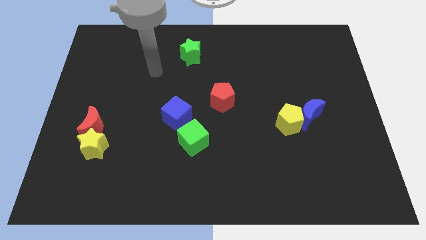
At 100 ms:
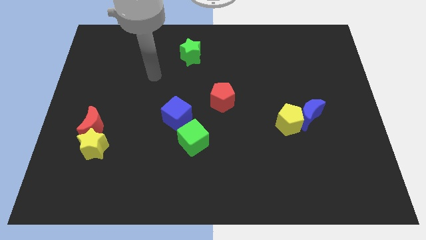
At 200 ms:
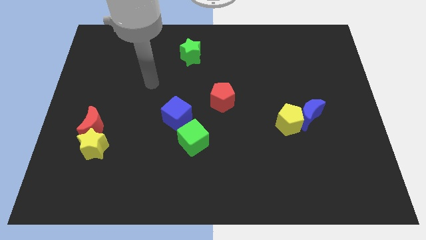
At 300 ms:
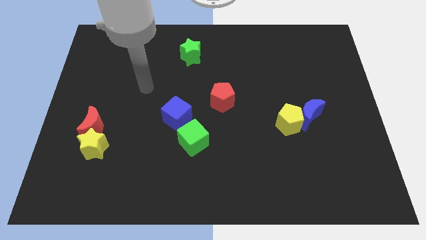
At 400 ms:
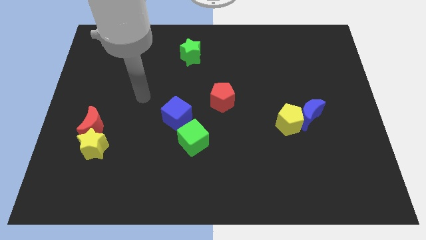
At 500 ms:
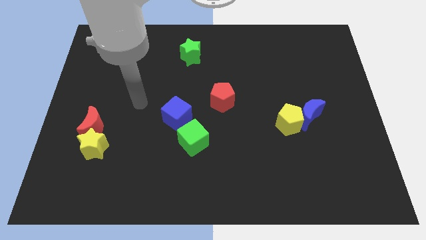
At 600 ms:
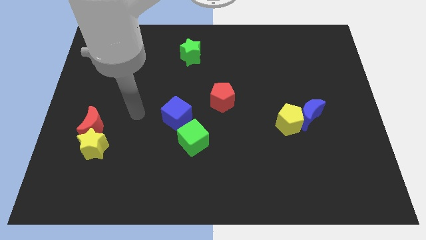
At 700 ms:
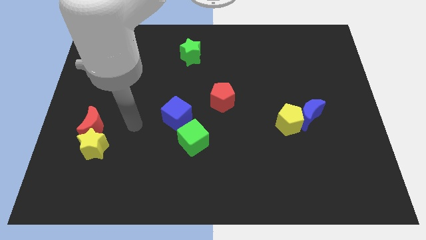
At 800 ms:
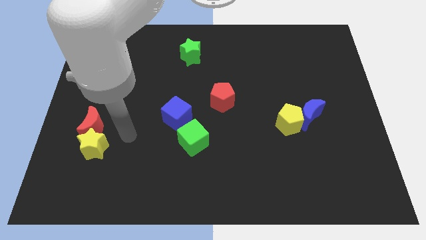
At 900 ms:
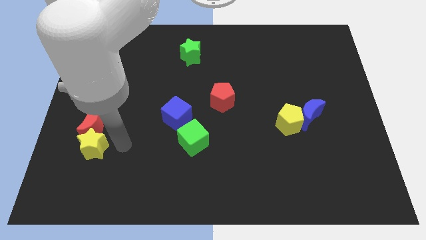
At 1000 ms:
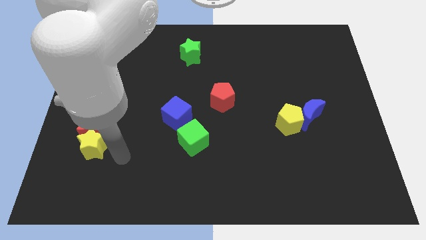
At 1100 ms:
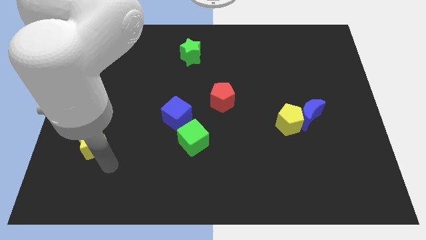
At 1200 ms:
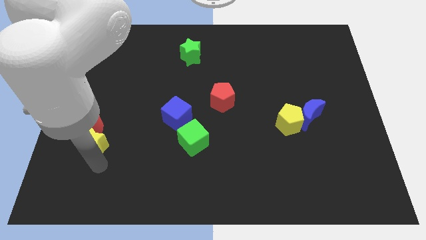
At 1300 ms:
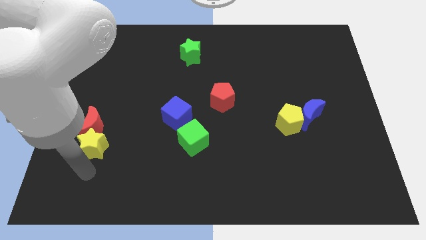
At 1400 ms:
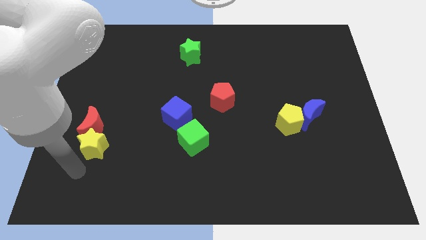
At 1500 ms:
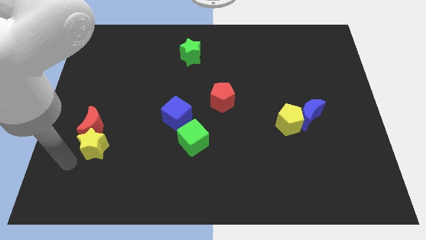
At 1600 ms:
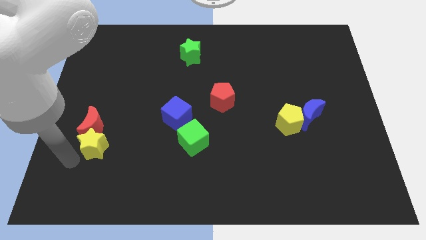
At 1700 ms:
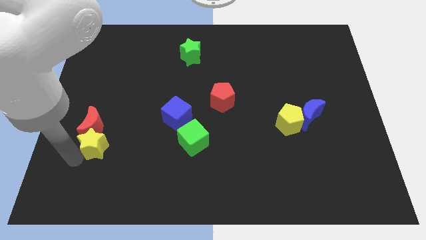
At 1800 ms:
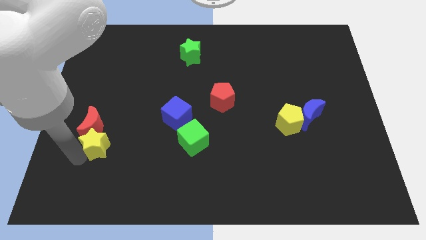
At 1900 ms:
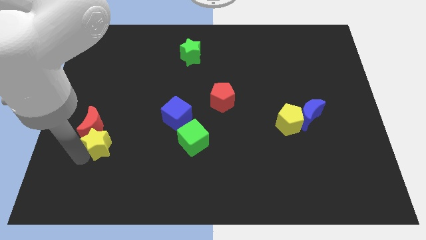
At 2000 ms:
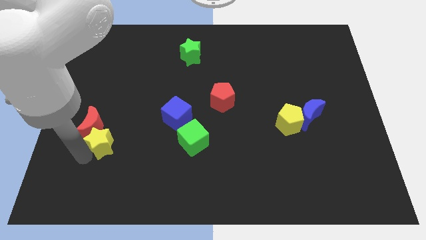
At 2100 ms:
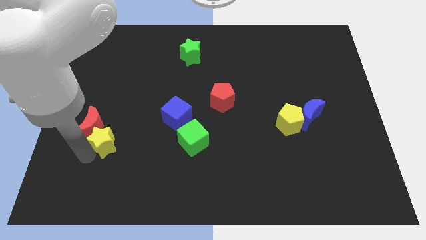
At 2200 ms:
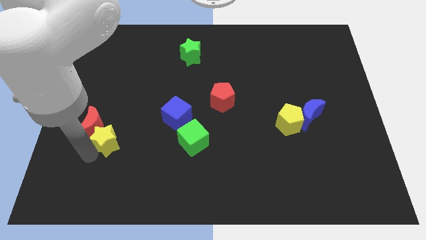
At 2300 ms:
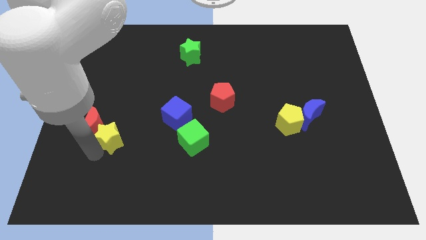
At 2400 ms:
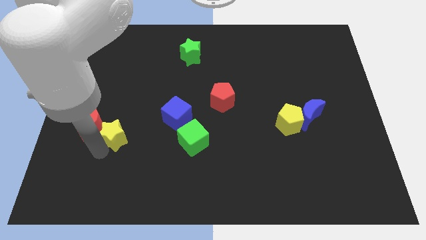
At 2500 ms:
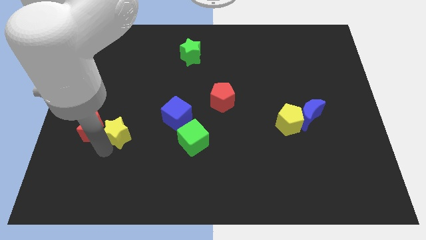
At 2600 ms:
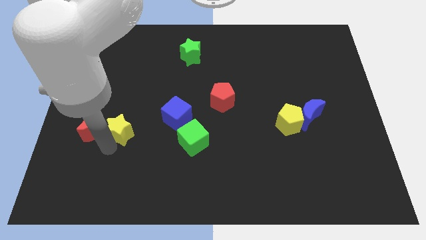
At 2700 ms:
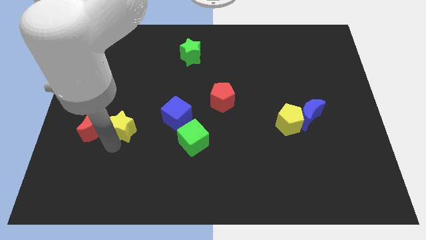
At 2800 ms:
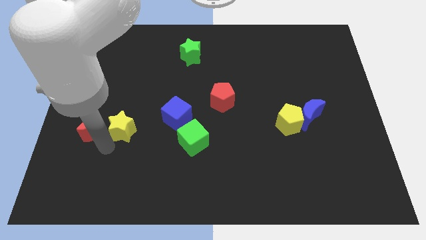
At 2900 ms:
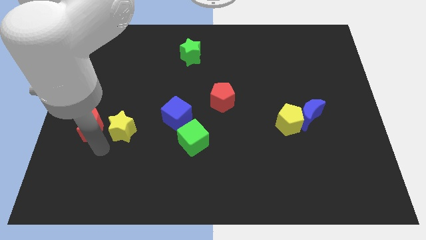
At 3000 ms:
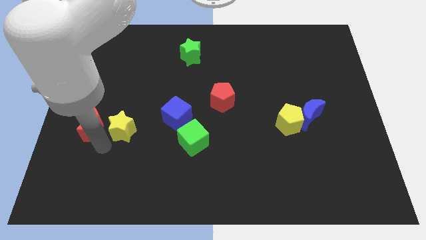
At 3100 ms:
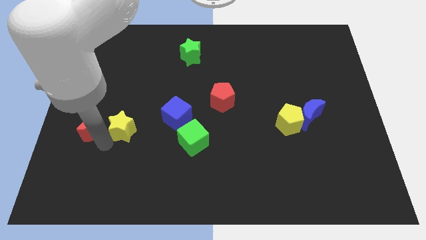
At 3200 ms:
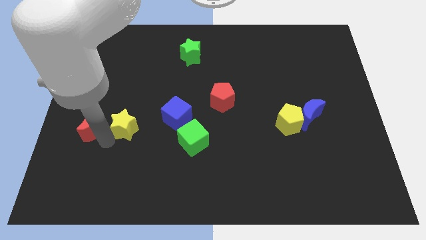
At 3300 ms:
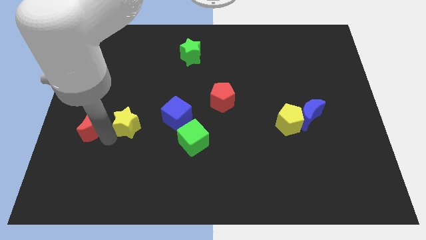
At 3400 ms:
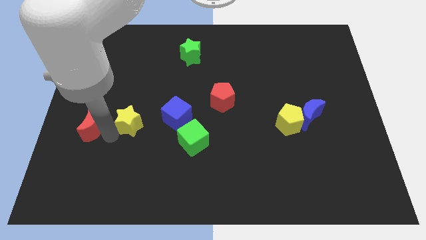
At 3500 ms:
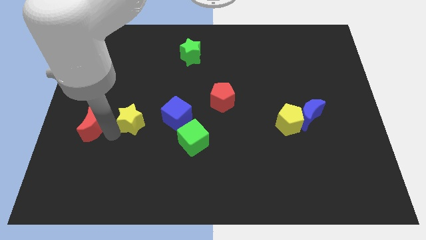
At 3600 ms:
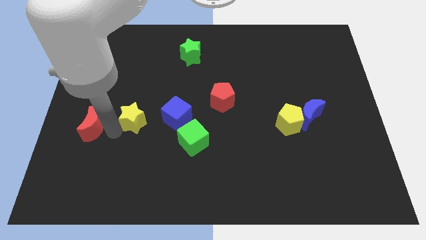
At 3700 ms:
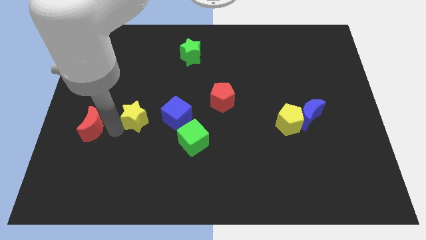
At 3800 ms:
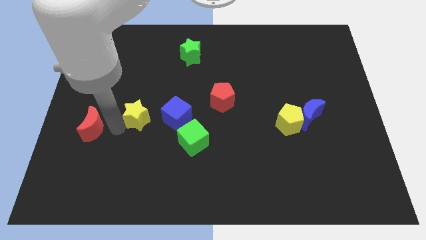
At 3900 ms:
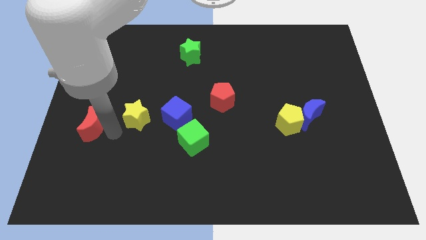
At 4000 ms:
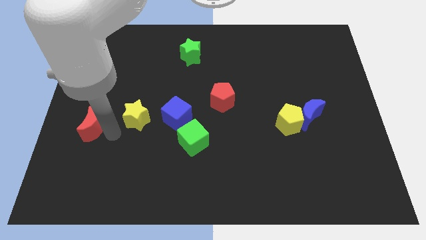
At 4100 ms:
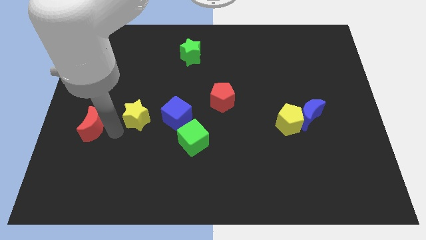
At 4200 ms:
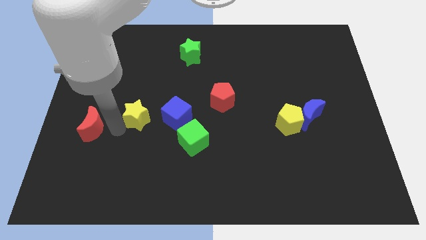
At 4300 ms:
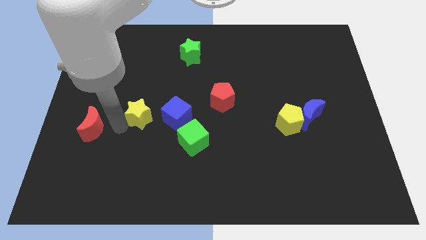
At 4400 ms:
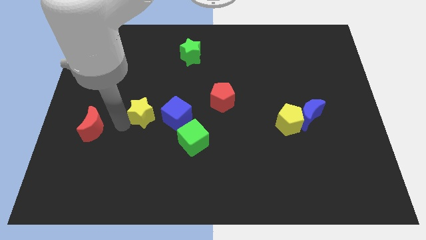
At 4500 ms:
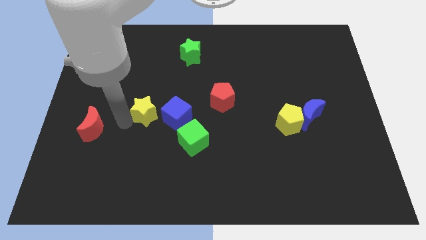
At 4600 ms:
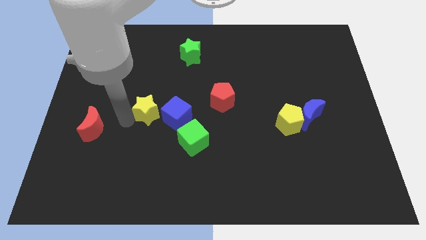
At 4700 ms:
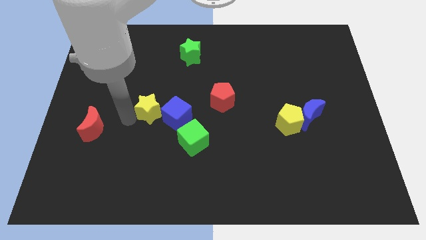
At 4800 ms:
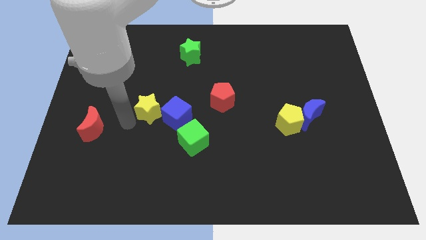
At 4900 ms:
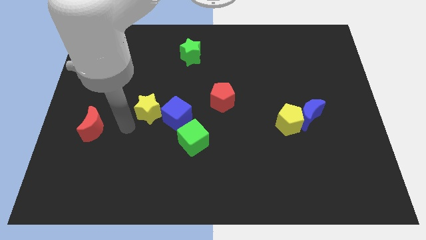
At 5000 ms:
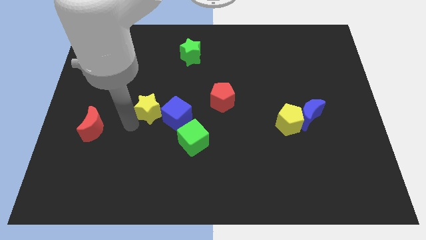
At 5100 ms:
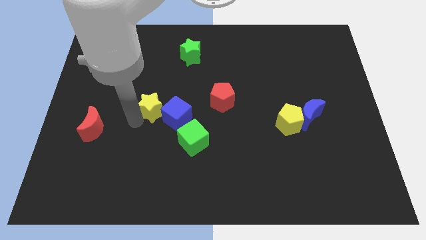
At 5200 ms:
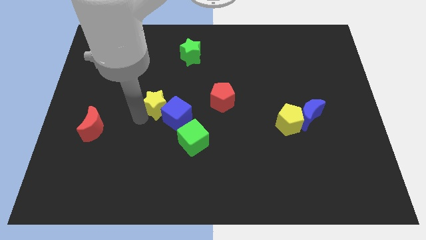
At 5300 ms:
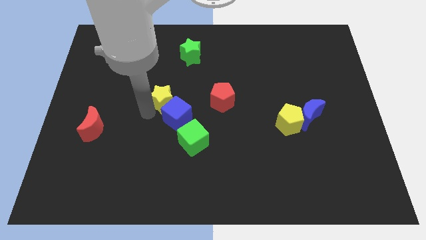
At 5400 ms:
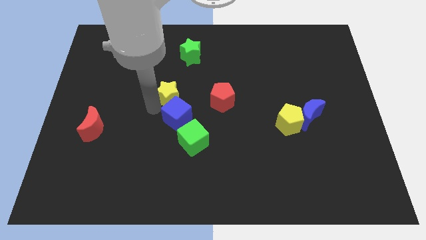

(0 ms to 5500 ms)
slide the yellow star diagonally upwards and to the right

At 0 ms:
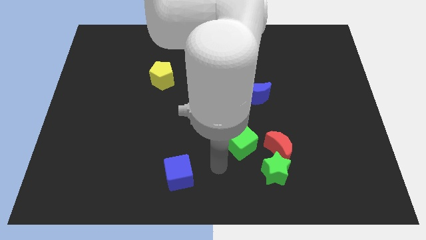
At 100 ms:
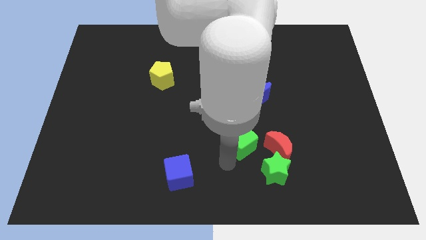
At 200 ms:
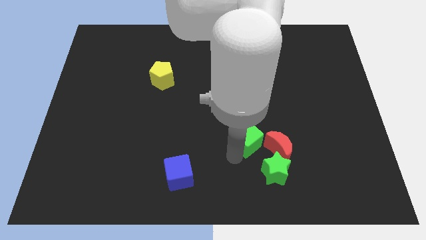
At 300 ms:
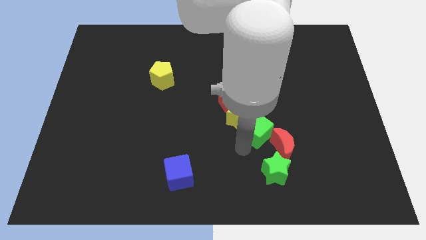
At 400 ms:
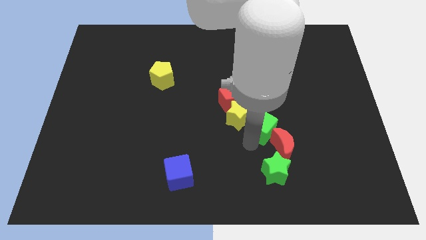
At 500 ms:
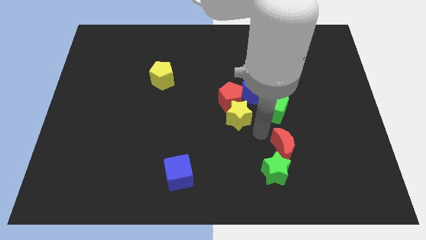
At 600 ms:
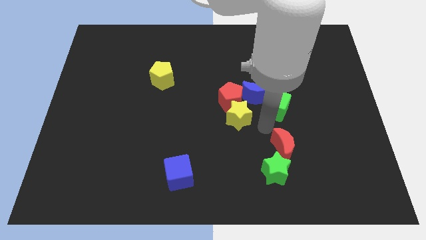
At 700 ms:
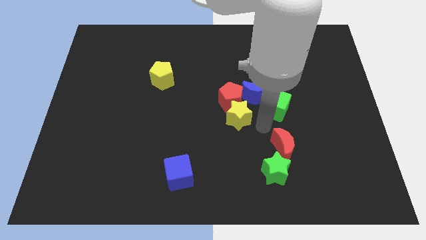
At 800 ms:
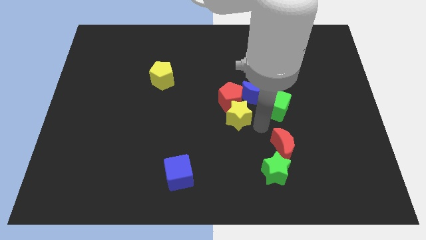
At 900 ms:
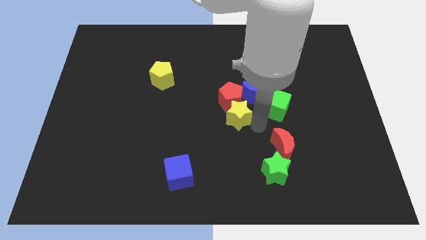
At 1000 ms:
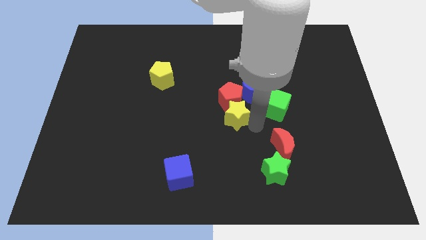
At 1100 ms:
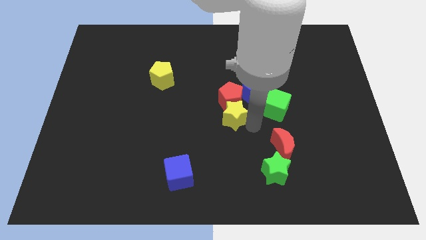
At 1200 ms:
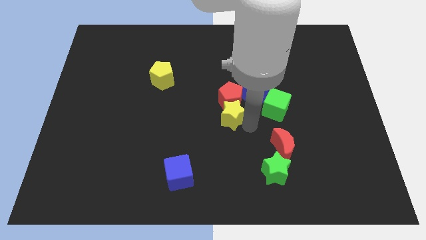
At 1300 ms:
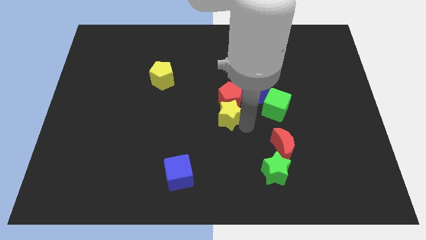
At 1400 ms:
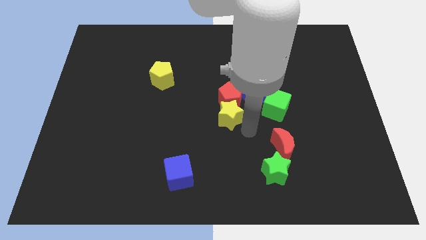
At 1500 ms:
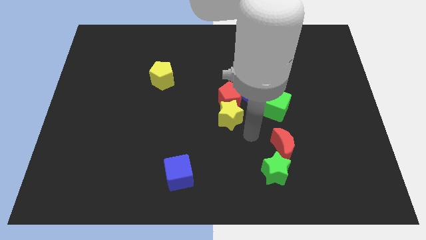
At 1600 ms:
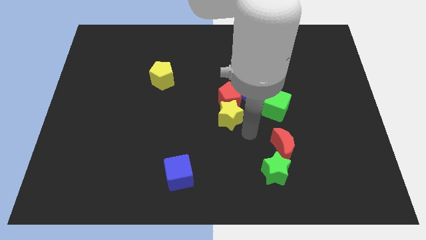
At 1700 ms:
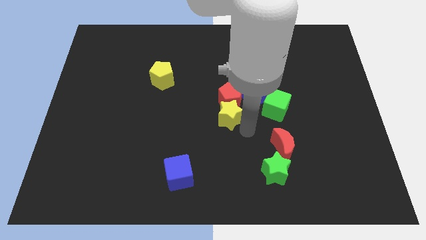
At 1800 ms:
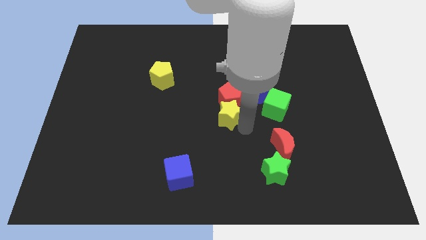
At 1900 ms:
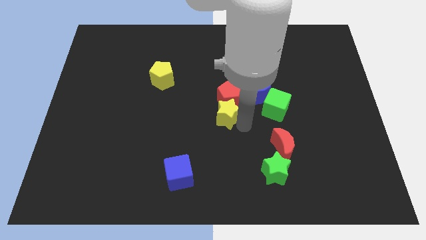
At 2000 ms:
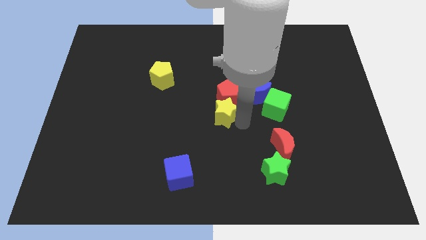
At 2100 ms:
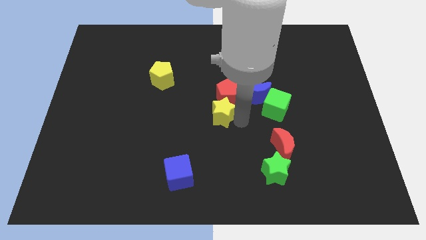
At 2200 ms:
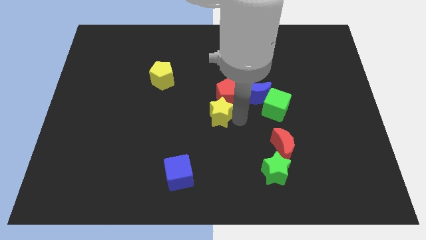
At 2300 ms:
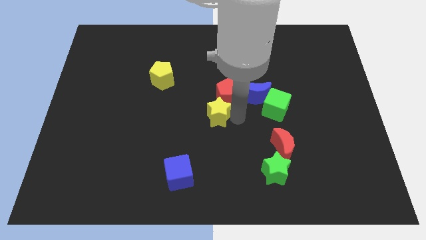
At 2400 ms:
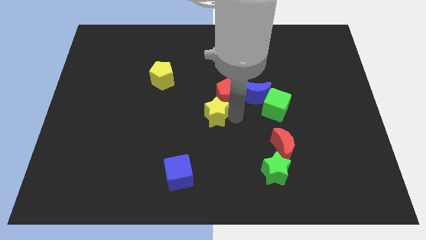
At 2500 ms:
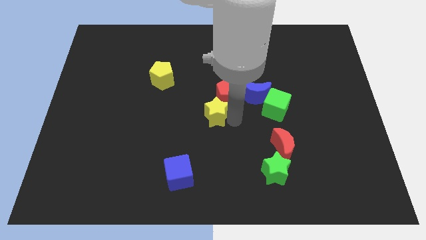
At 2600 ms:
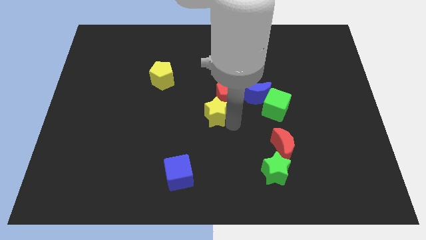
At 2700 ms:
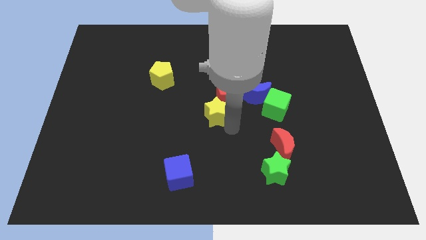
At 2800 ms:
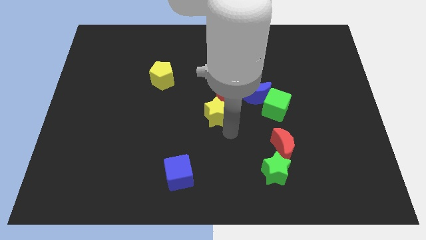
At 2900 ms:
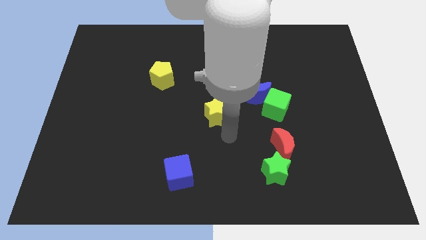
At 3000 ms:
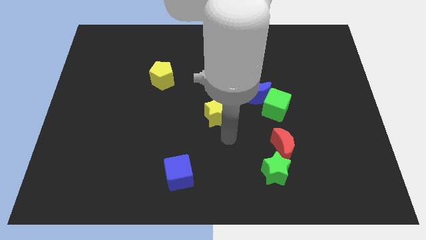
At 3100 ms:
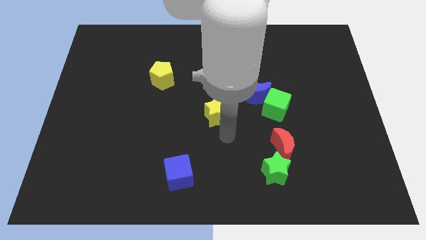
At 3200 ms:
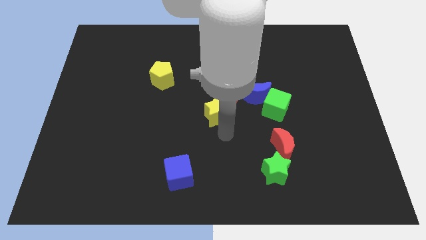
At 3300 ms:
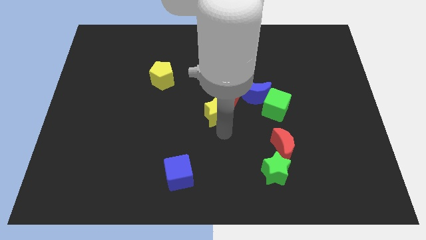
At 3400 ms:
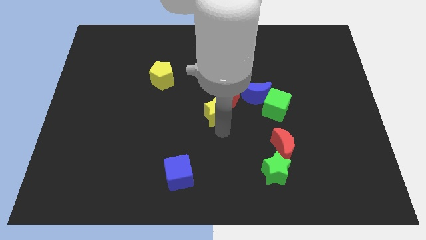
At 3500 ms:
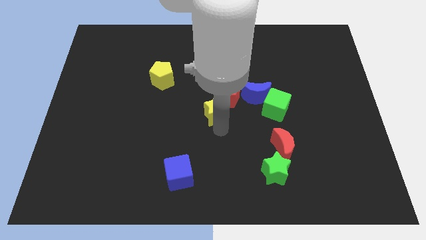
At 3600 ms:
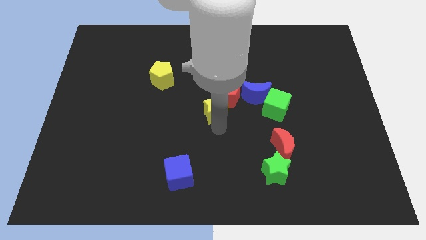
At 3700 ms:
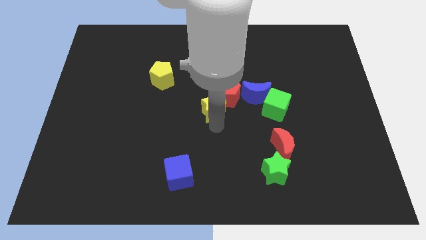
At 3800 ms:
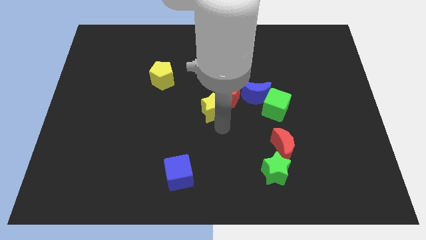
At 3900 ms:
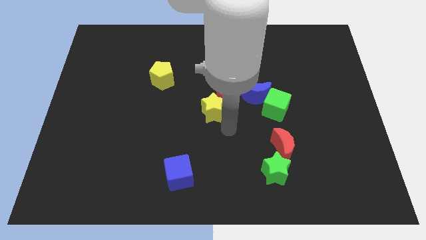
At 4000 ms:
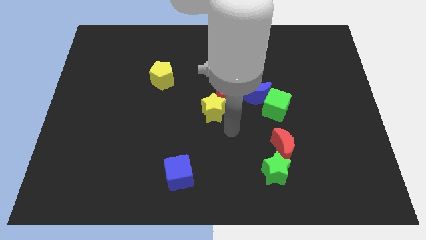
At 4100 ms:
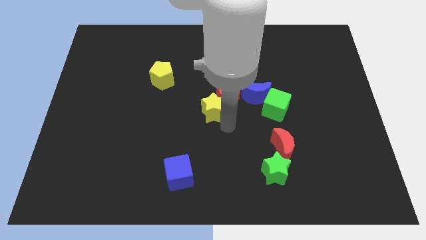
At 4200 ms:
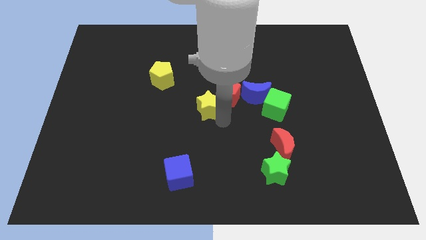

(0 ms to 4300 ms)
slightly move the yellow star upwards and left
